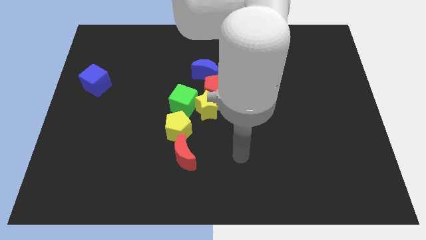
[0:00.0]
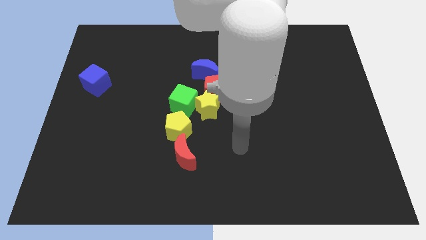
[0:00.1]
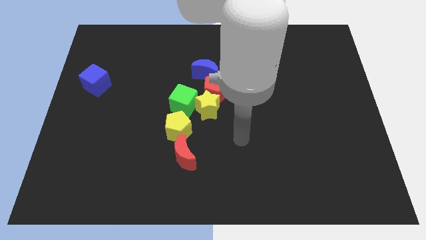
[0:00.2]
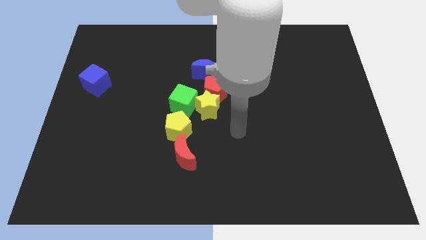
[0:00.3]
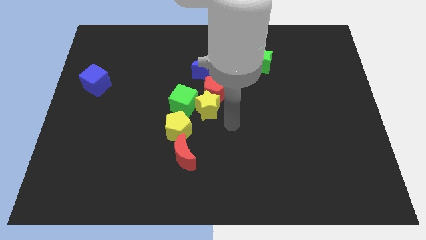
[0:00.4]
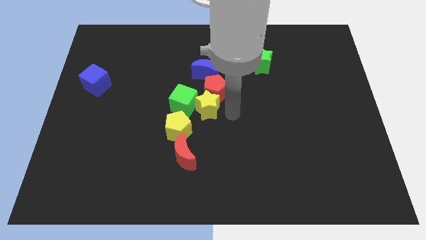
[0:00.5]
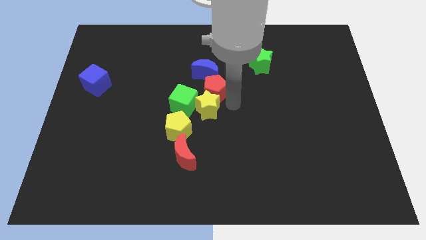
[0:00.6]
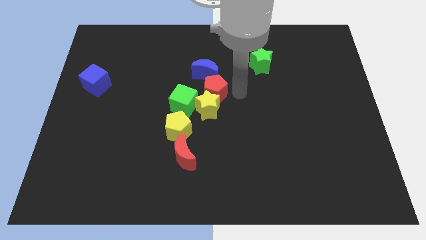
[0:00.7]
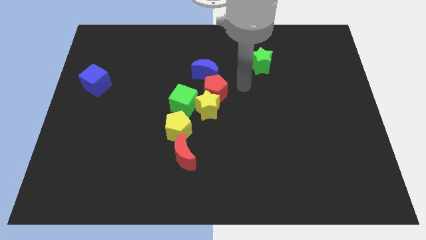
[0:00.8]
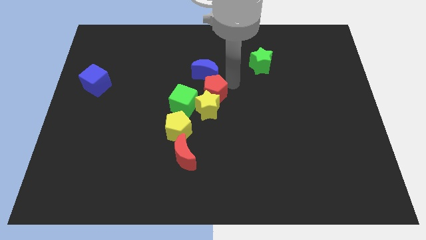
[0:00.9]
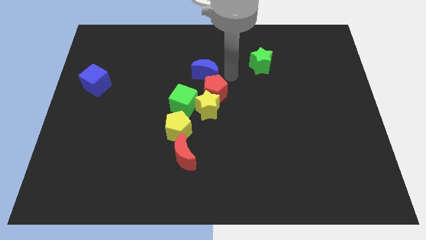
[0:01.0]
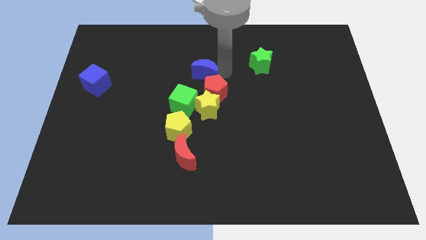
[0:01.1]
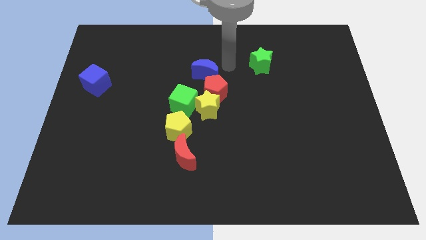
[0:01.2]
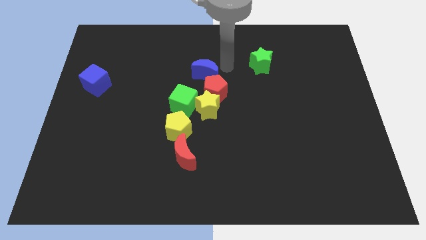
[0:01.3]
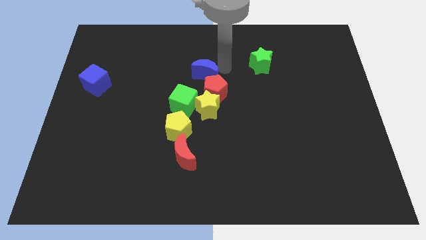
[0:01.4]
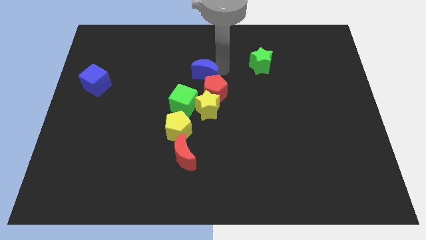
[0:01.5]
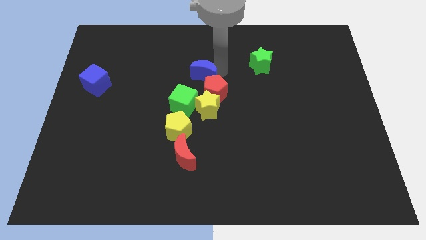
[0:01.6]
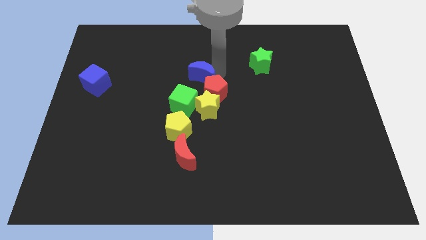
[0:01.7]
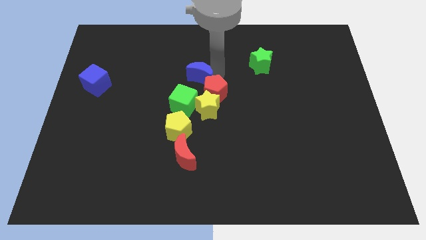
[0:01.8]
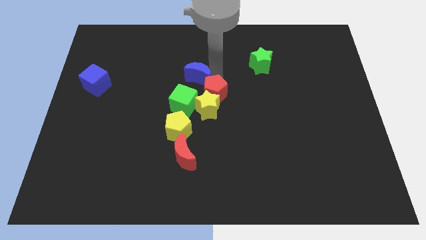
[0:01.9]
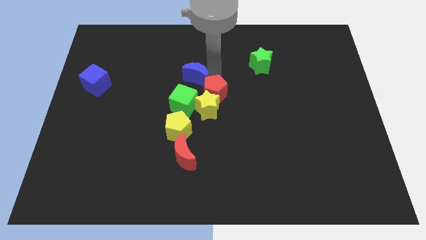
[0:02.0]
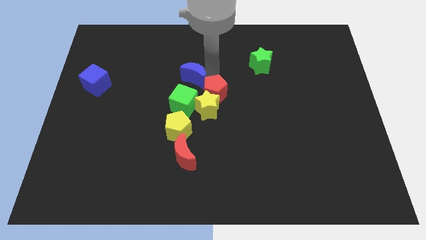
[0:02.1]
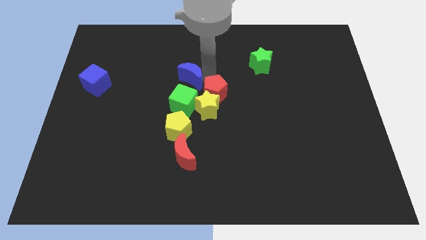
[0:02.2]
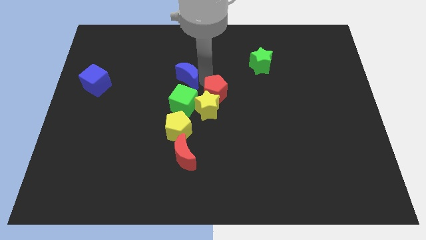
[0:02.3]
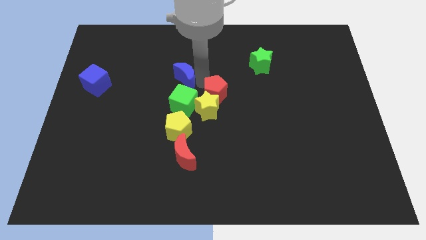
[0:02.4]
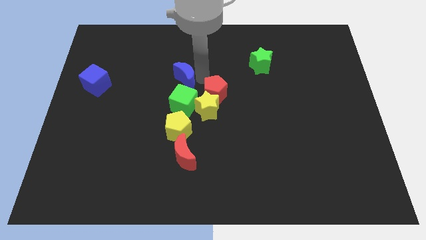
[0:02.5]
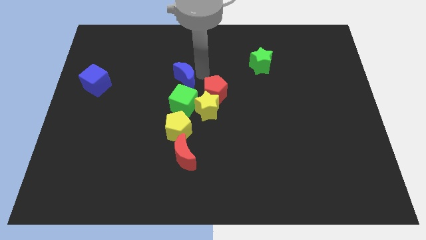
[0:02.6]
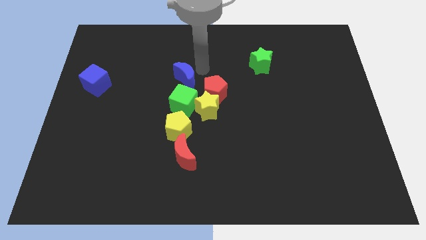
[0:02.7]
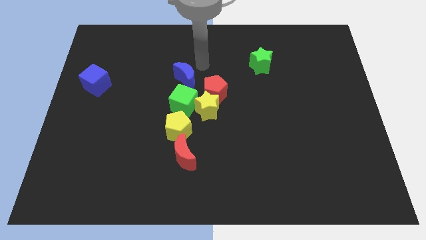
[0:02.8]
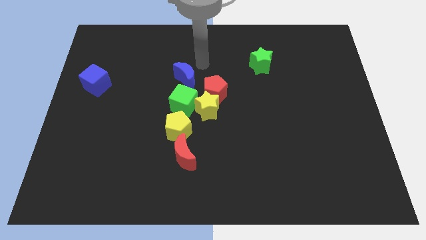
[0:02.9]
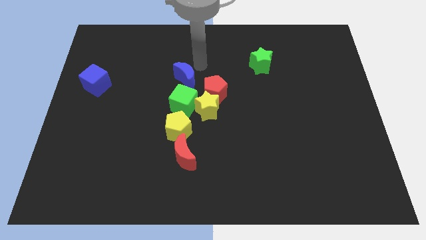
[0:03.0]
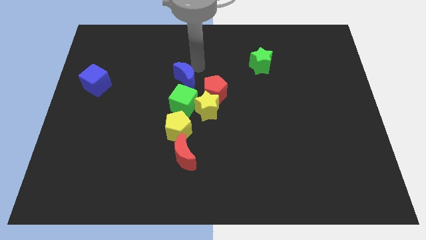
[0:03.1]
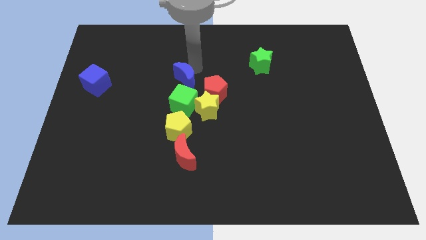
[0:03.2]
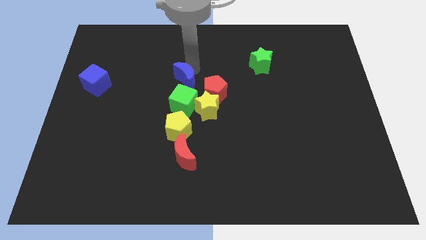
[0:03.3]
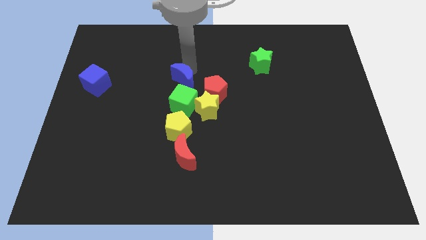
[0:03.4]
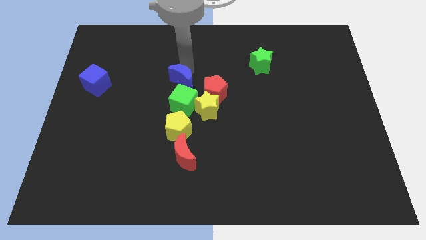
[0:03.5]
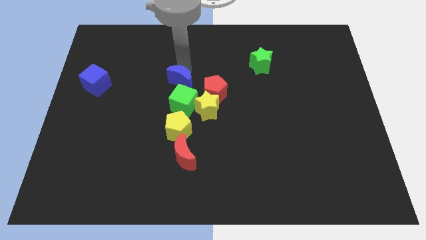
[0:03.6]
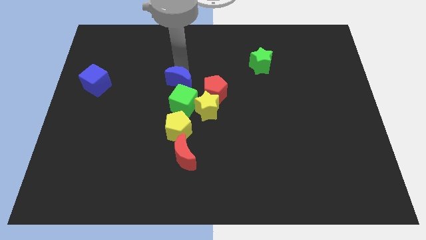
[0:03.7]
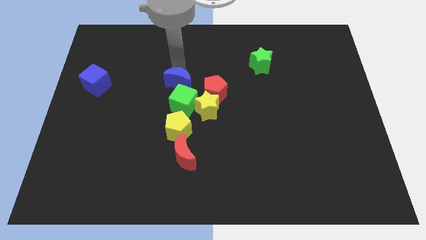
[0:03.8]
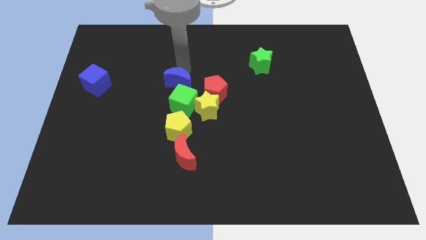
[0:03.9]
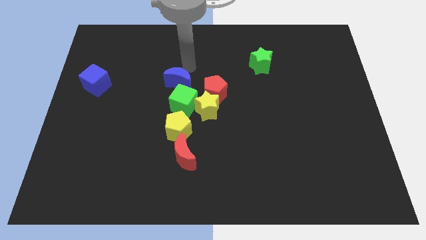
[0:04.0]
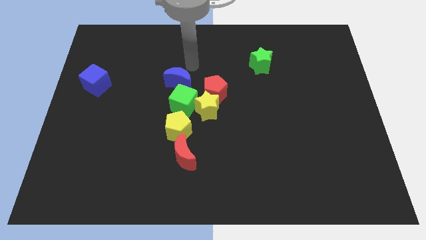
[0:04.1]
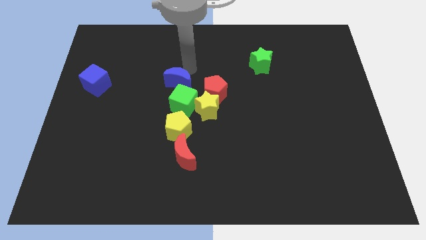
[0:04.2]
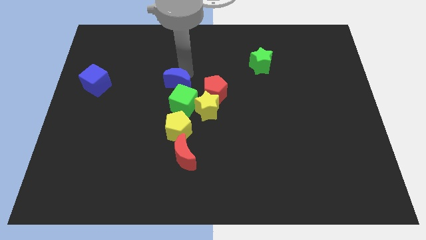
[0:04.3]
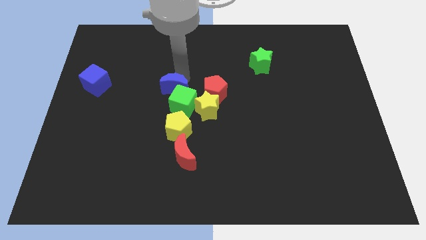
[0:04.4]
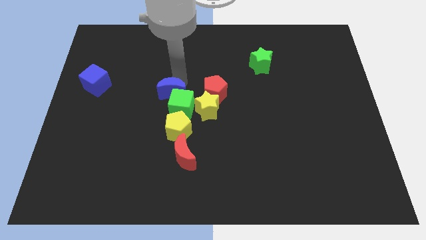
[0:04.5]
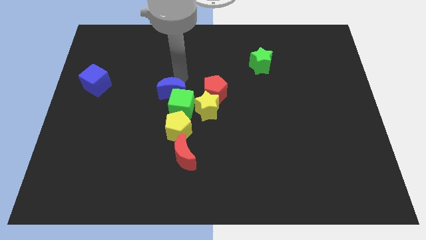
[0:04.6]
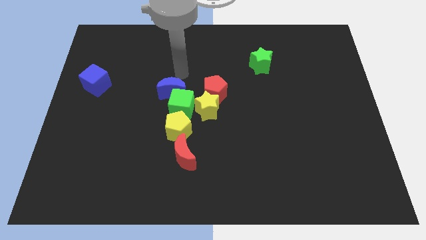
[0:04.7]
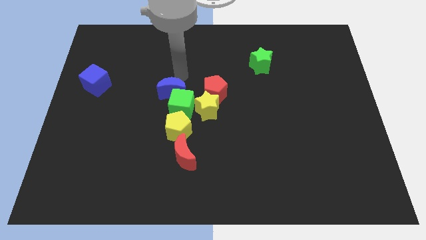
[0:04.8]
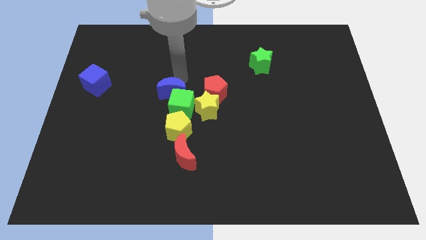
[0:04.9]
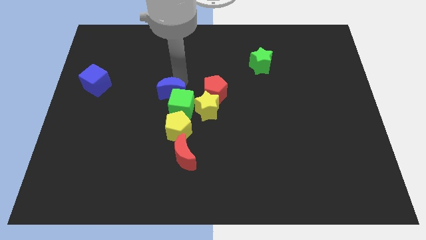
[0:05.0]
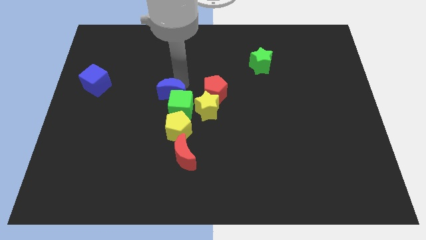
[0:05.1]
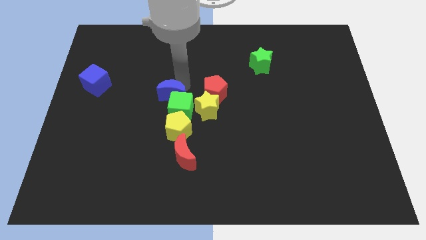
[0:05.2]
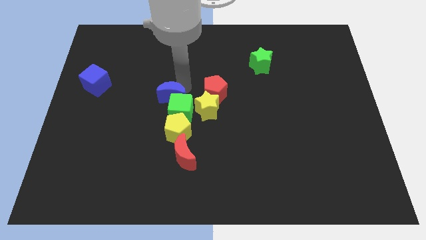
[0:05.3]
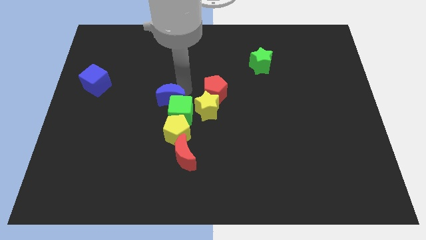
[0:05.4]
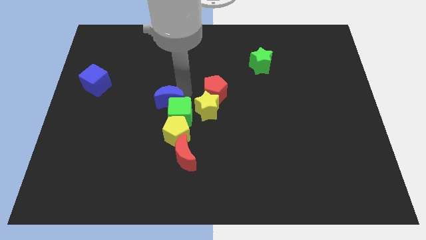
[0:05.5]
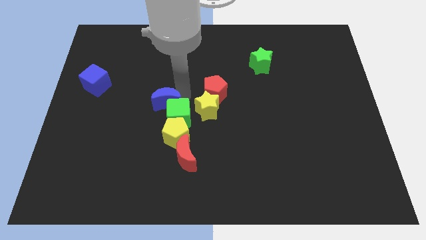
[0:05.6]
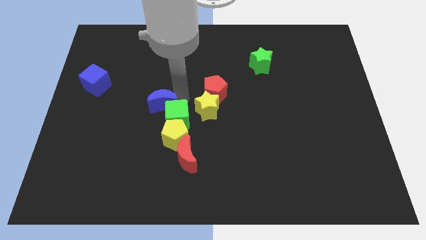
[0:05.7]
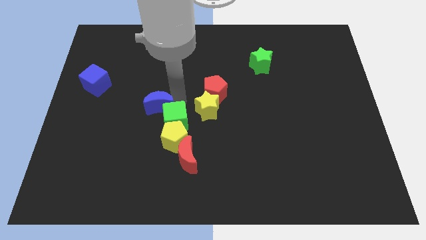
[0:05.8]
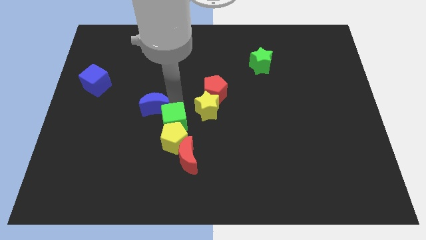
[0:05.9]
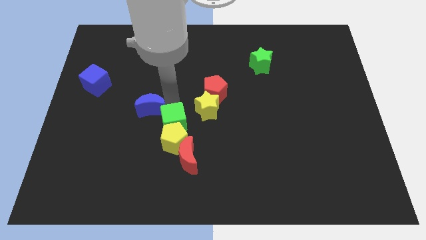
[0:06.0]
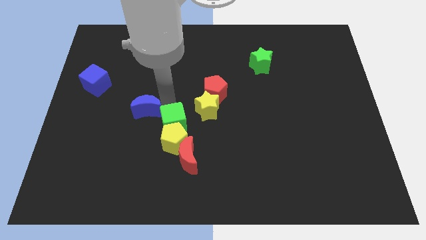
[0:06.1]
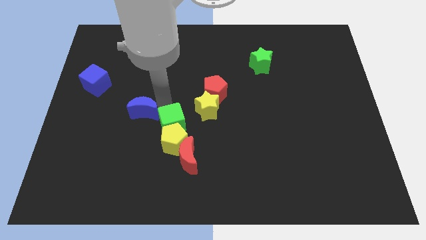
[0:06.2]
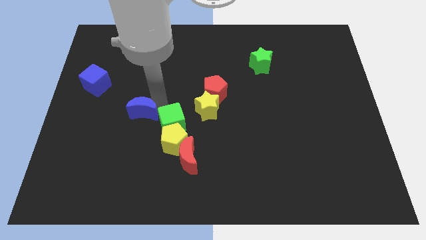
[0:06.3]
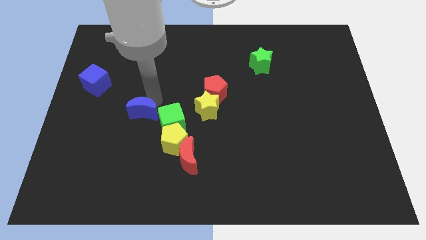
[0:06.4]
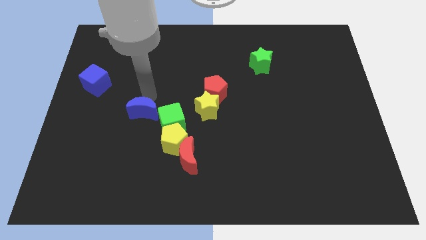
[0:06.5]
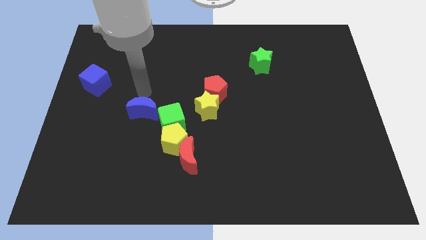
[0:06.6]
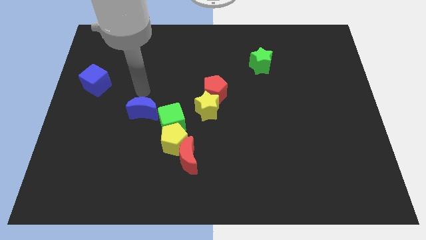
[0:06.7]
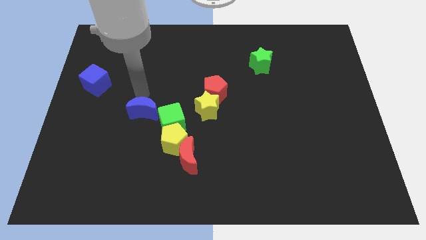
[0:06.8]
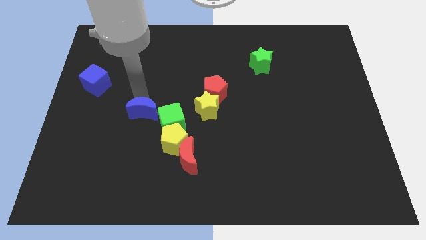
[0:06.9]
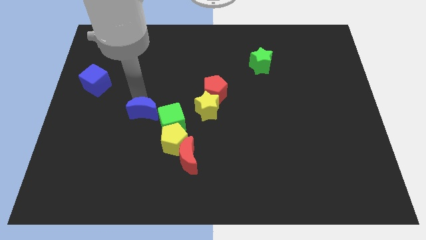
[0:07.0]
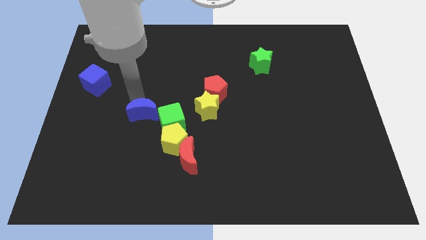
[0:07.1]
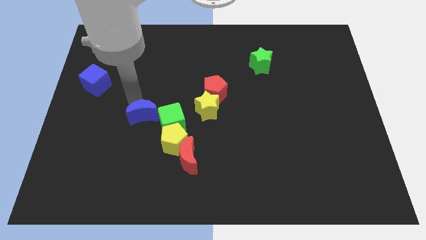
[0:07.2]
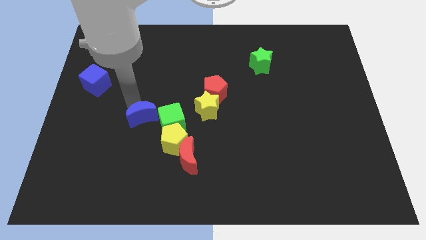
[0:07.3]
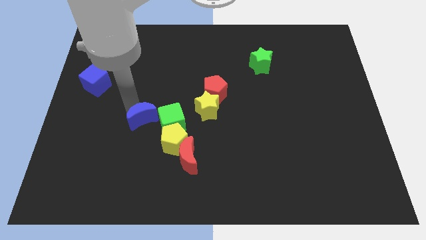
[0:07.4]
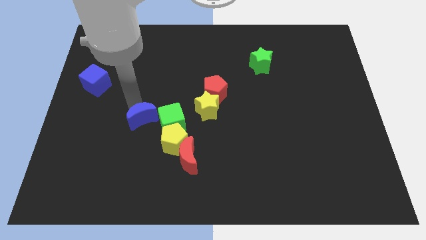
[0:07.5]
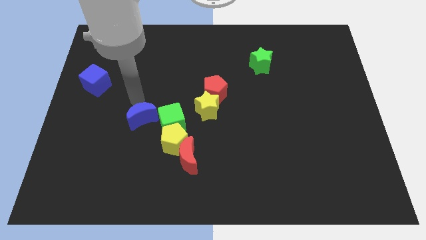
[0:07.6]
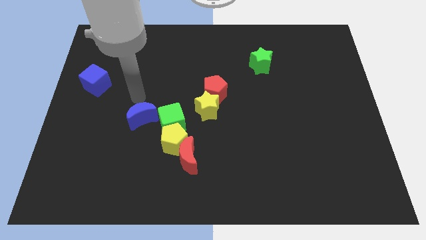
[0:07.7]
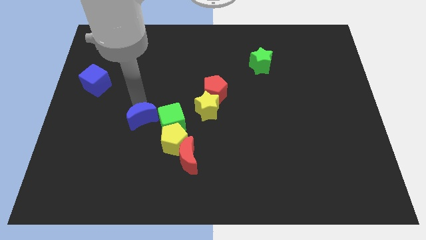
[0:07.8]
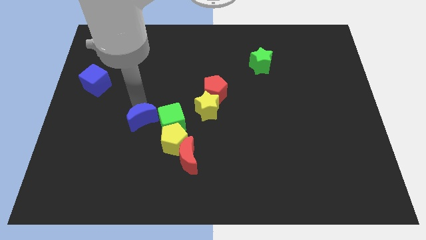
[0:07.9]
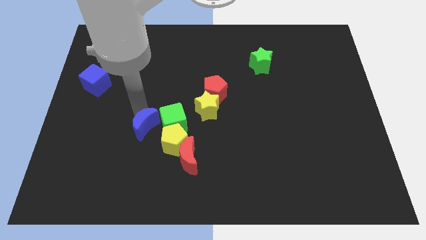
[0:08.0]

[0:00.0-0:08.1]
push the blue moon diagonally down and to the left of the green cube
